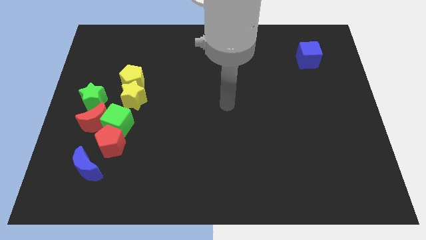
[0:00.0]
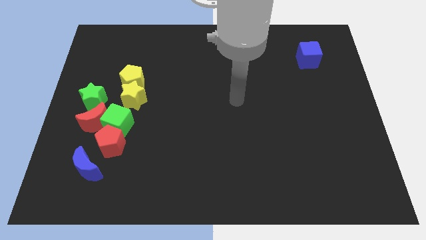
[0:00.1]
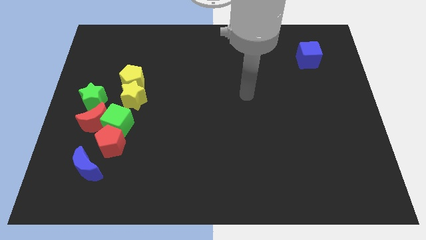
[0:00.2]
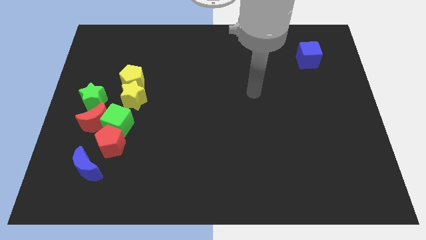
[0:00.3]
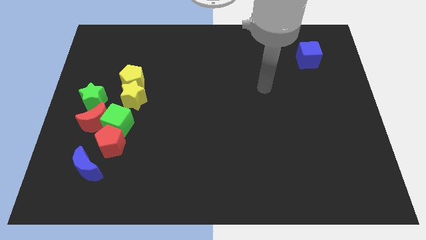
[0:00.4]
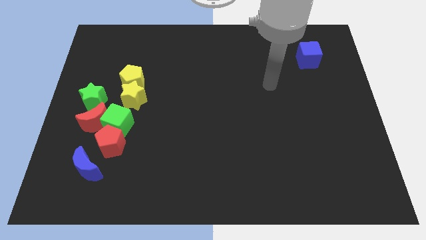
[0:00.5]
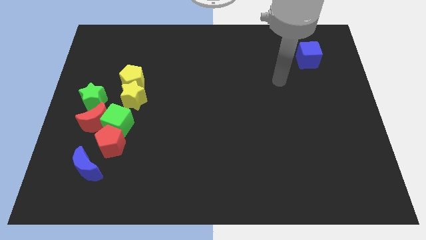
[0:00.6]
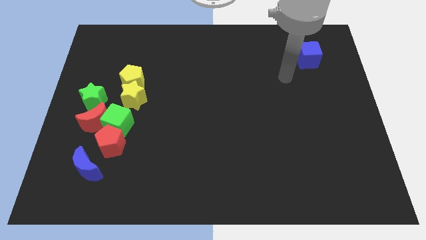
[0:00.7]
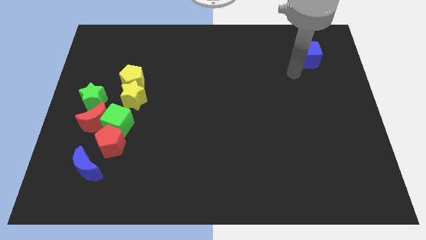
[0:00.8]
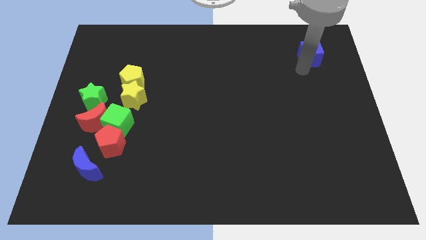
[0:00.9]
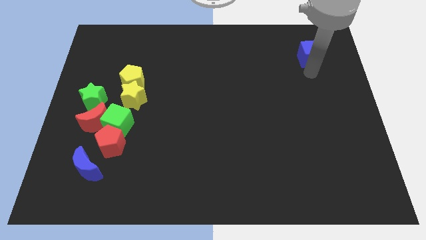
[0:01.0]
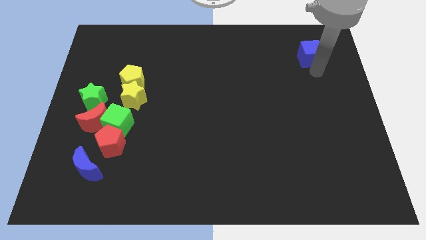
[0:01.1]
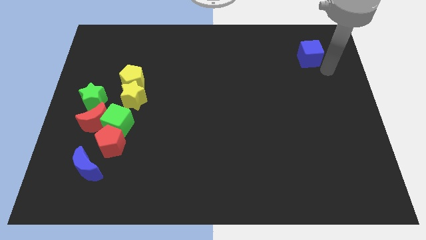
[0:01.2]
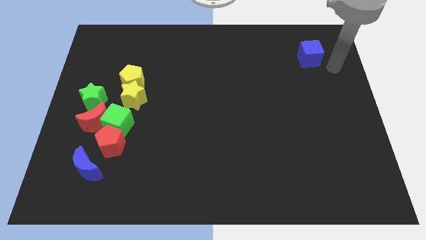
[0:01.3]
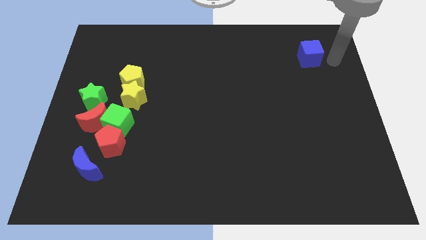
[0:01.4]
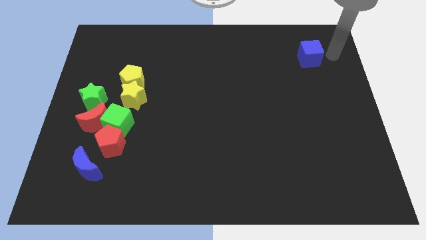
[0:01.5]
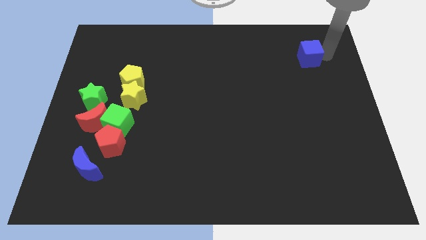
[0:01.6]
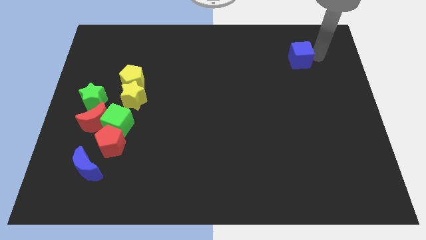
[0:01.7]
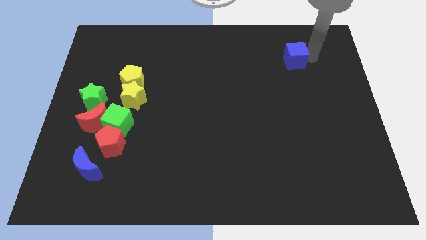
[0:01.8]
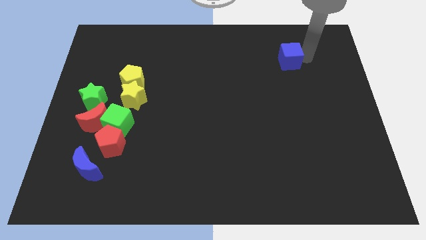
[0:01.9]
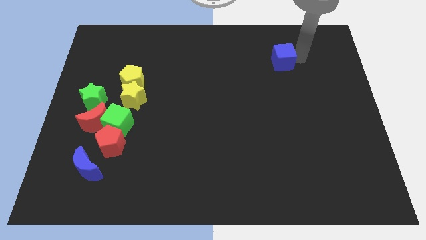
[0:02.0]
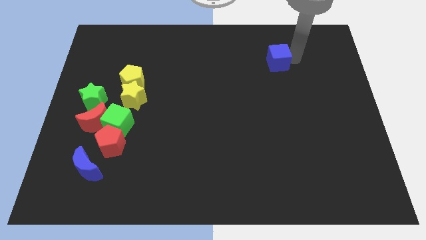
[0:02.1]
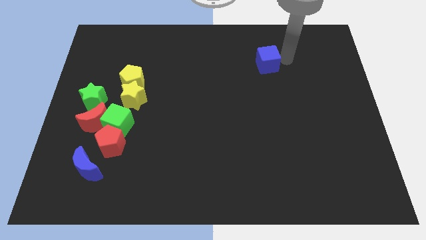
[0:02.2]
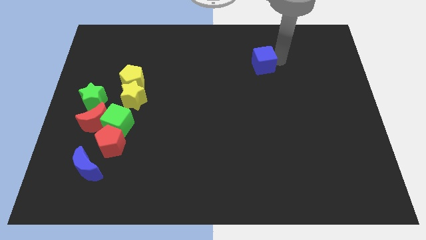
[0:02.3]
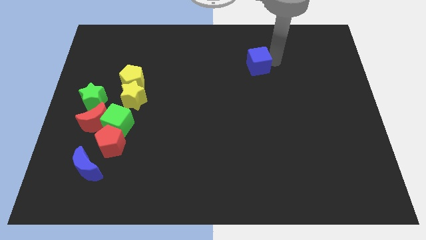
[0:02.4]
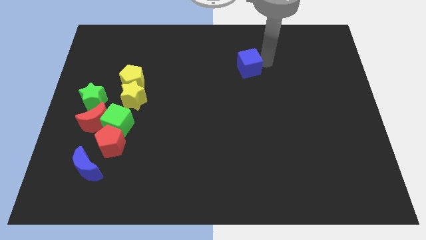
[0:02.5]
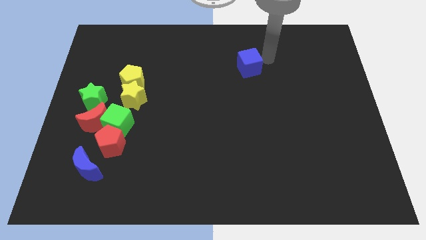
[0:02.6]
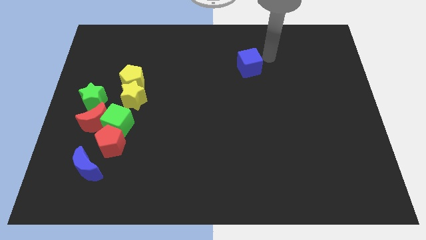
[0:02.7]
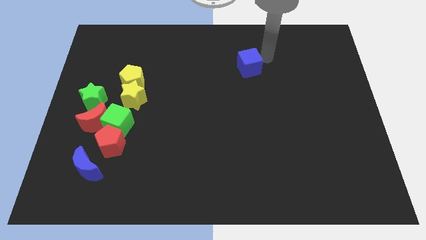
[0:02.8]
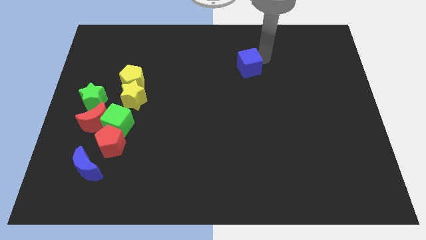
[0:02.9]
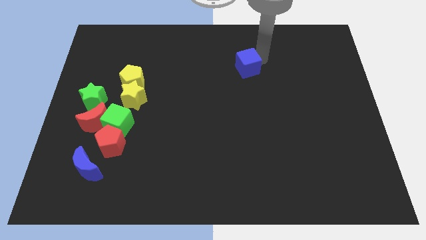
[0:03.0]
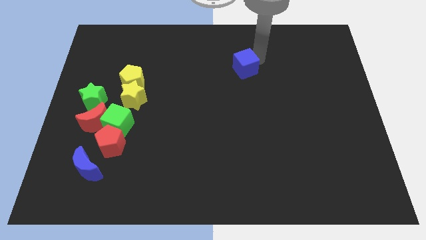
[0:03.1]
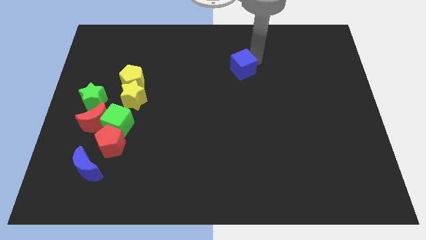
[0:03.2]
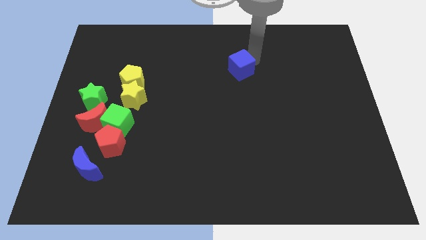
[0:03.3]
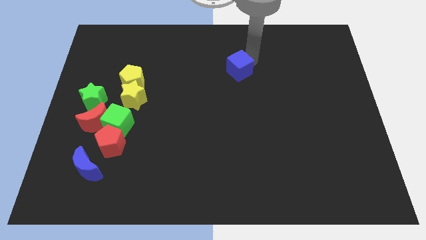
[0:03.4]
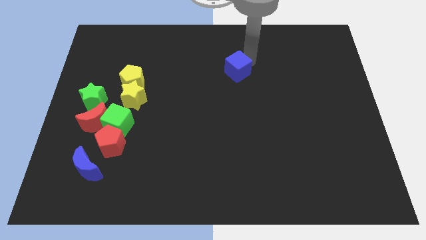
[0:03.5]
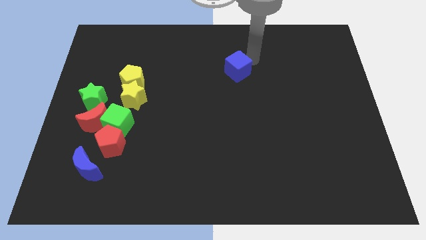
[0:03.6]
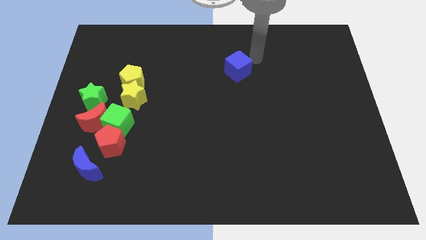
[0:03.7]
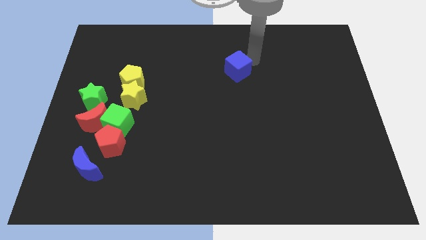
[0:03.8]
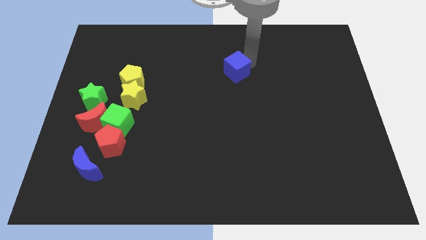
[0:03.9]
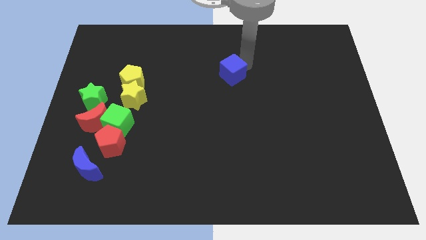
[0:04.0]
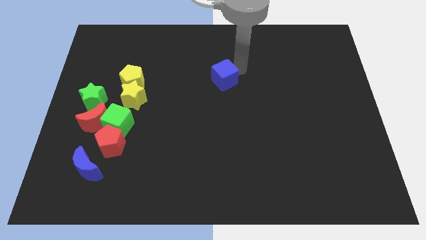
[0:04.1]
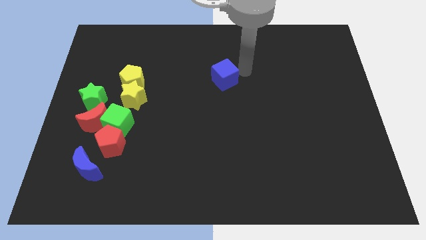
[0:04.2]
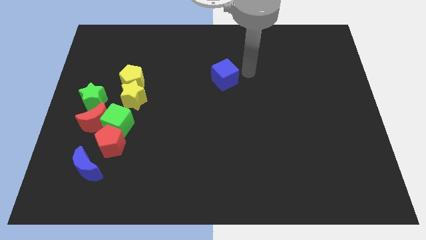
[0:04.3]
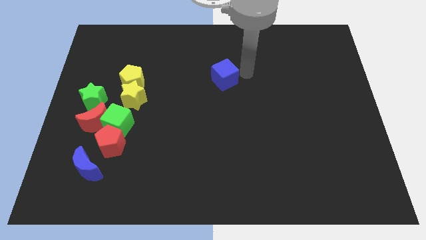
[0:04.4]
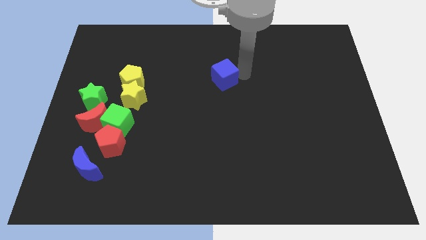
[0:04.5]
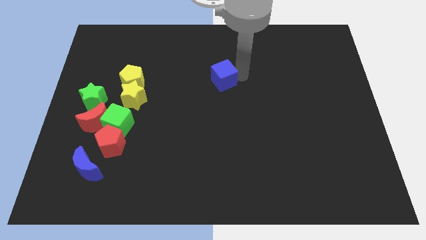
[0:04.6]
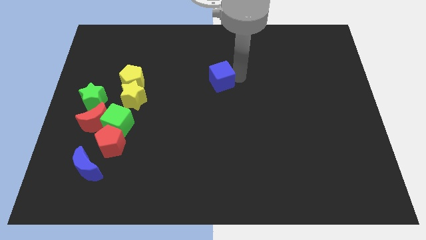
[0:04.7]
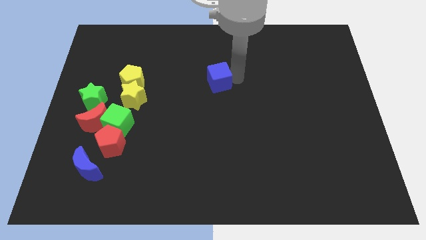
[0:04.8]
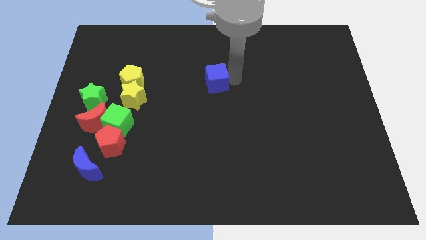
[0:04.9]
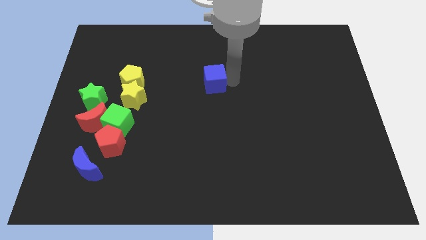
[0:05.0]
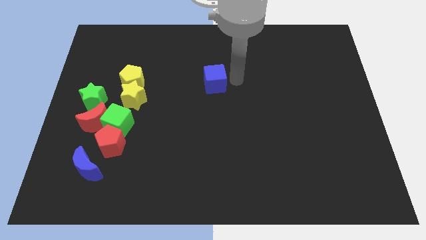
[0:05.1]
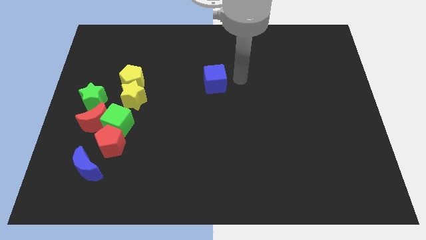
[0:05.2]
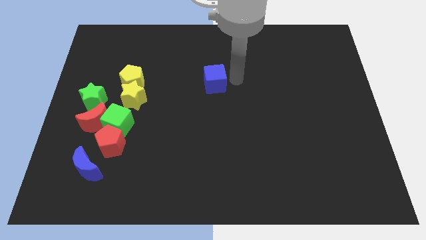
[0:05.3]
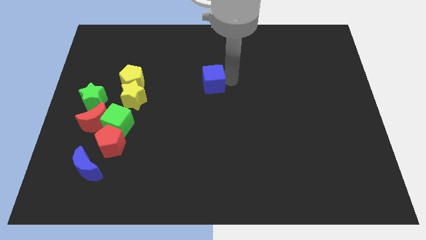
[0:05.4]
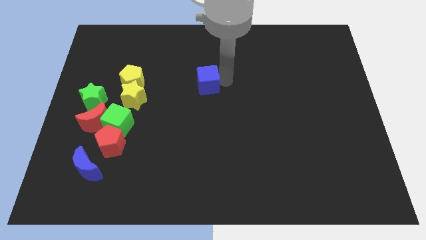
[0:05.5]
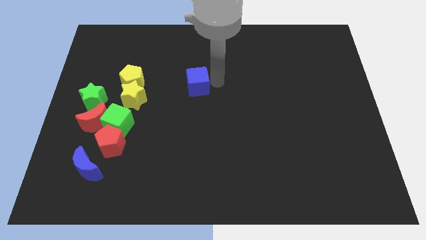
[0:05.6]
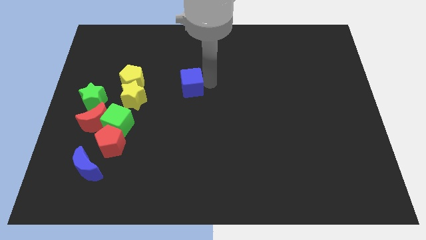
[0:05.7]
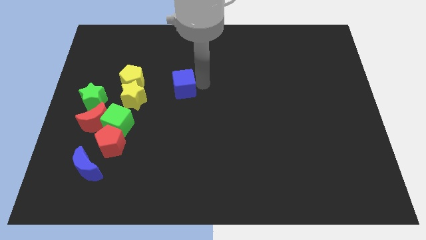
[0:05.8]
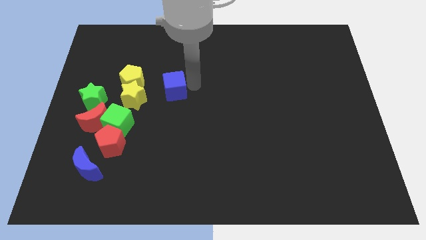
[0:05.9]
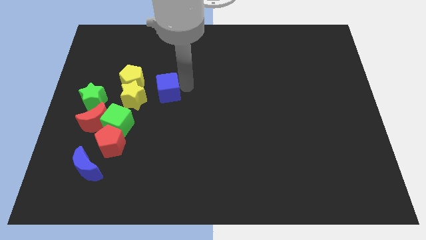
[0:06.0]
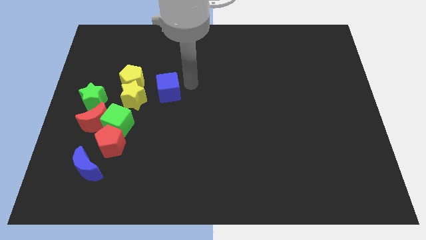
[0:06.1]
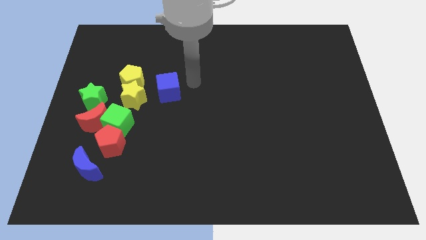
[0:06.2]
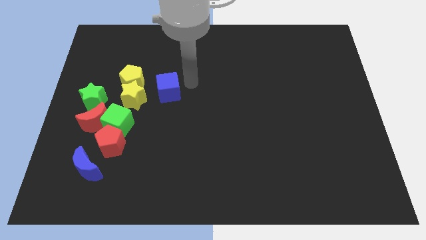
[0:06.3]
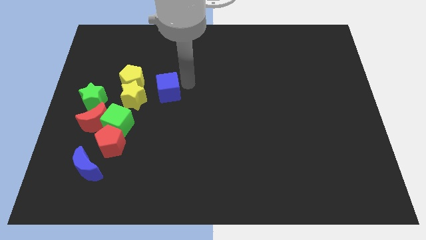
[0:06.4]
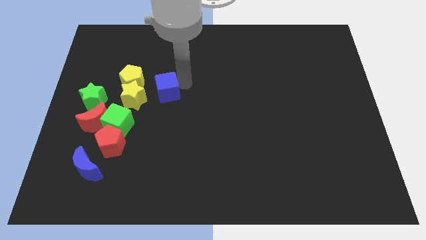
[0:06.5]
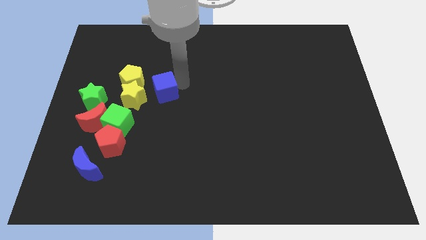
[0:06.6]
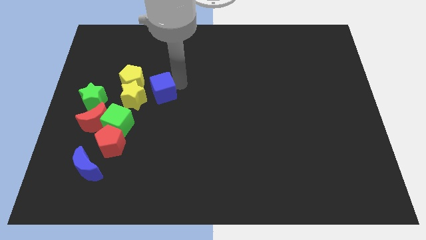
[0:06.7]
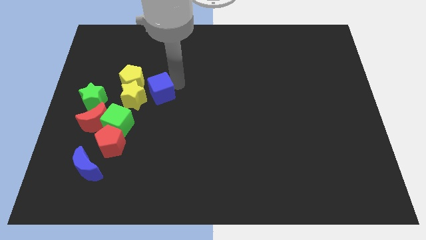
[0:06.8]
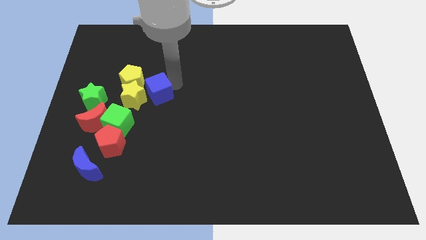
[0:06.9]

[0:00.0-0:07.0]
put the blue cube next to the yellow star

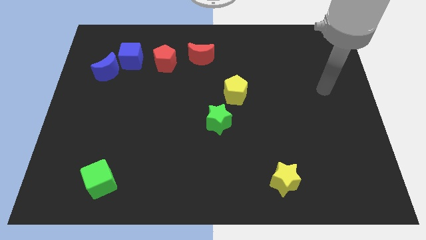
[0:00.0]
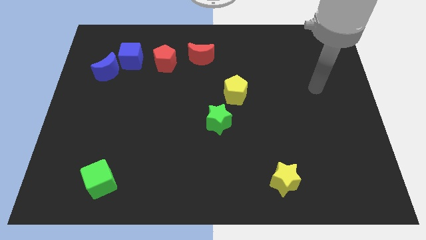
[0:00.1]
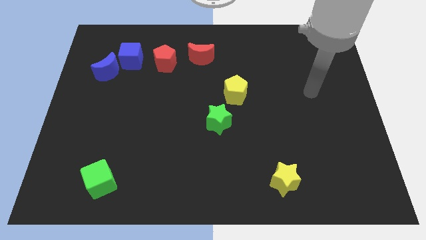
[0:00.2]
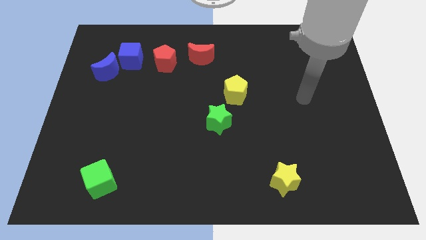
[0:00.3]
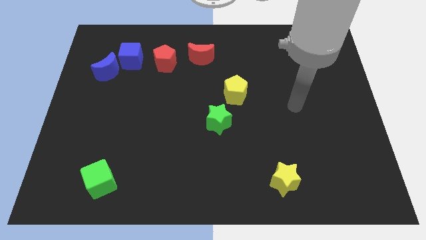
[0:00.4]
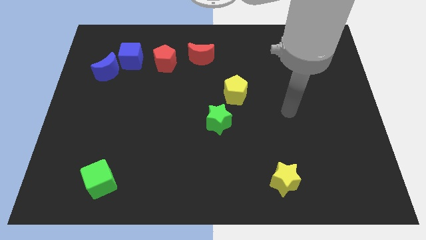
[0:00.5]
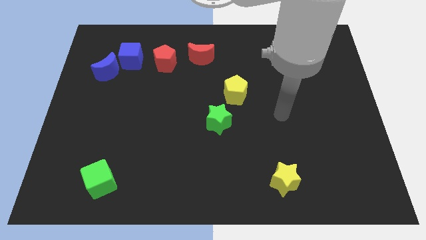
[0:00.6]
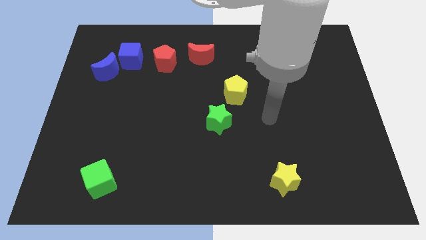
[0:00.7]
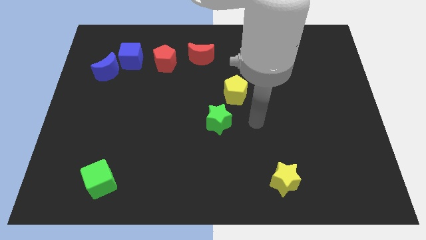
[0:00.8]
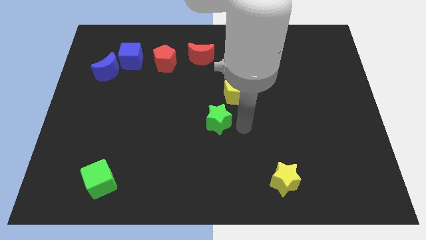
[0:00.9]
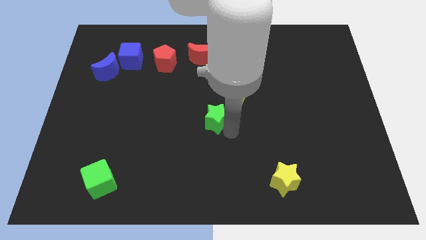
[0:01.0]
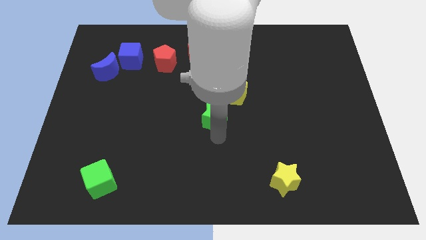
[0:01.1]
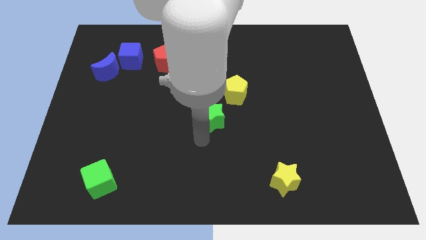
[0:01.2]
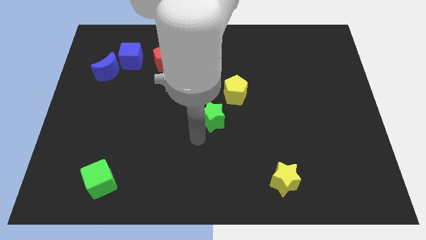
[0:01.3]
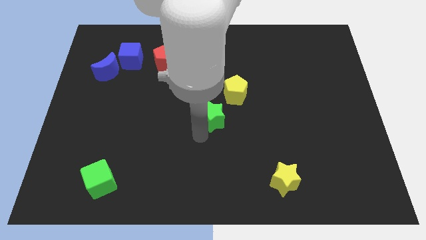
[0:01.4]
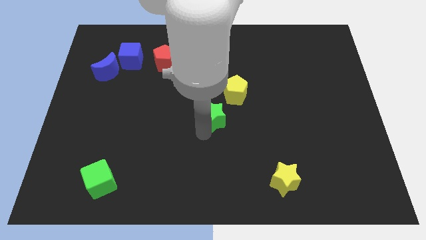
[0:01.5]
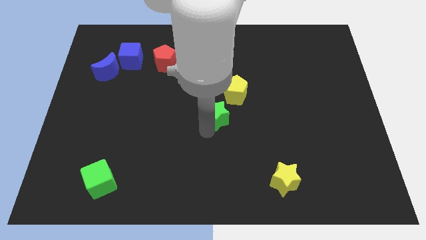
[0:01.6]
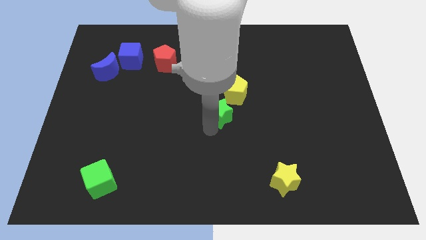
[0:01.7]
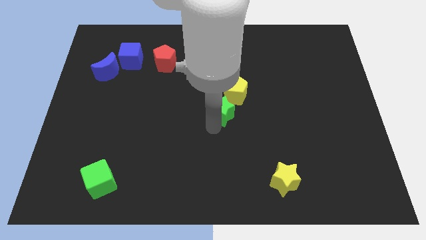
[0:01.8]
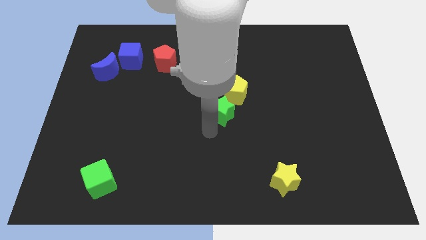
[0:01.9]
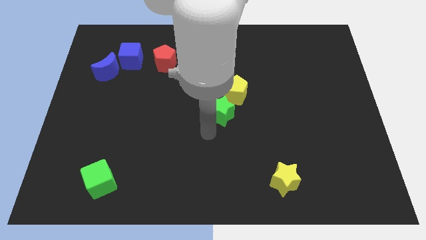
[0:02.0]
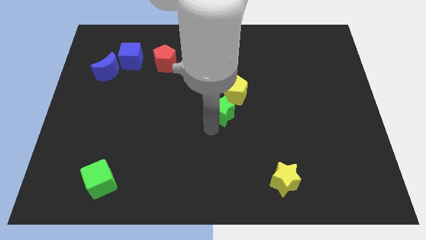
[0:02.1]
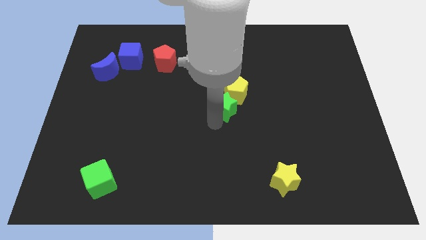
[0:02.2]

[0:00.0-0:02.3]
move the green star next to the yellow pentagon
